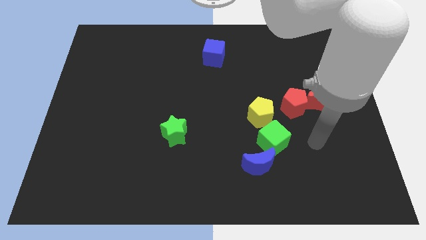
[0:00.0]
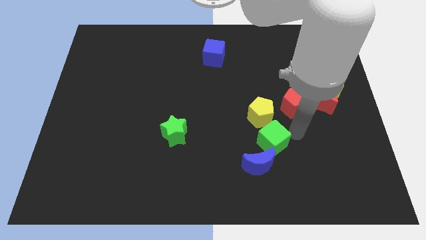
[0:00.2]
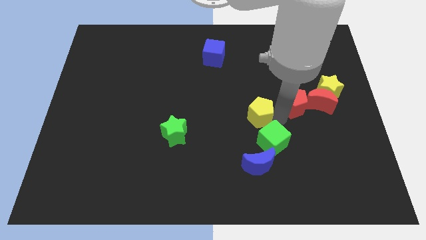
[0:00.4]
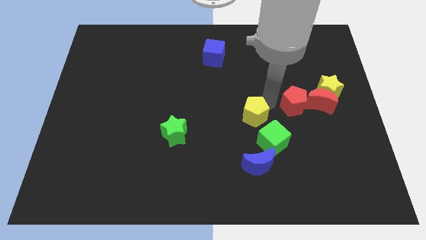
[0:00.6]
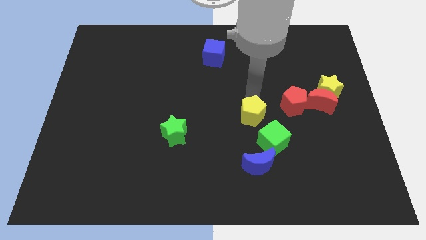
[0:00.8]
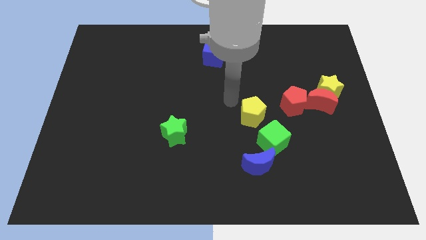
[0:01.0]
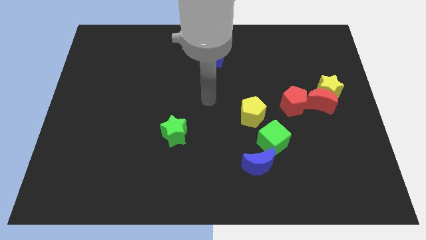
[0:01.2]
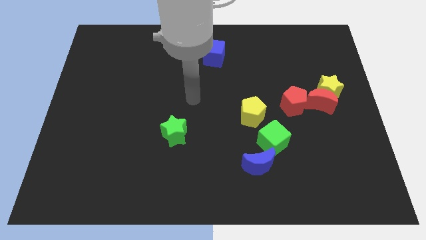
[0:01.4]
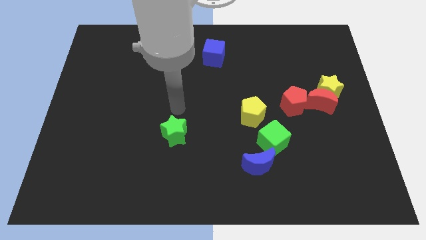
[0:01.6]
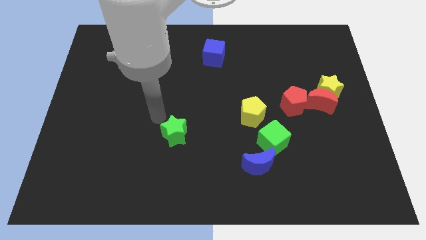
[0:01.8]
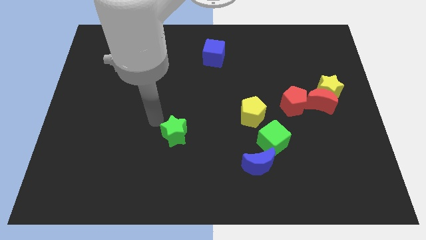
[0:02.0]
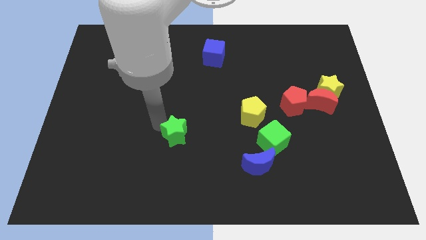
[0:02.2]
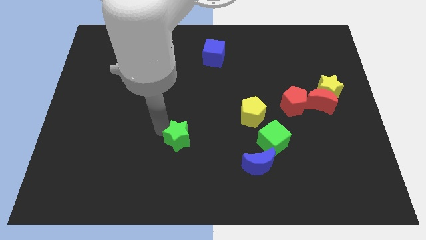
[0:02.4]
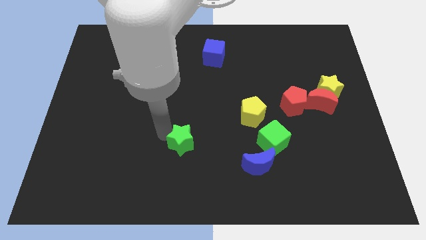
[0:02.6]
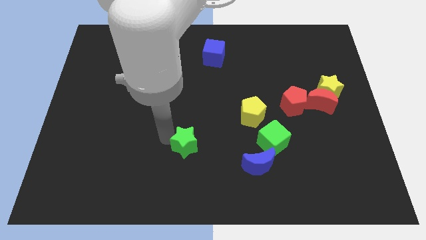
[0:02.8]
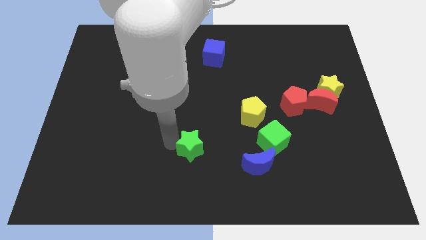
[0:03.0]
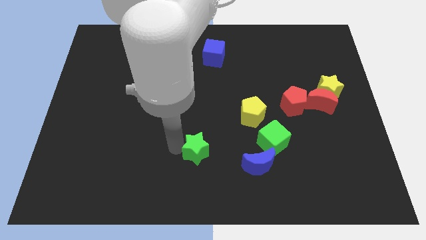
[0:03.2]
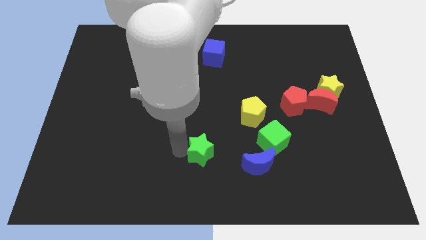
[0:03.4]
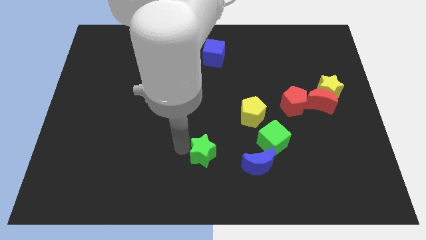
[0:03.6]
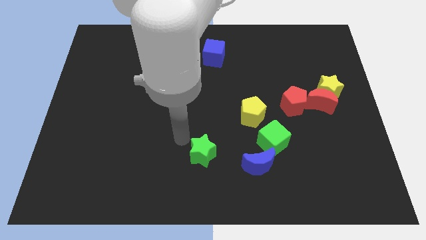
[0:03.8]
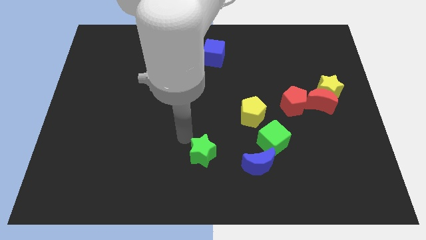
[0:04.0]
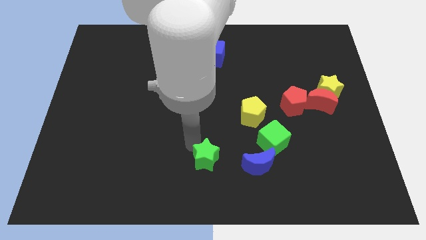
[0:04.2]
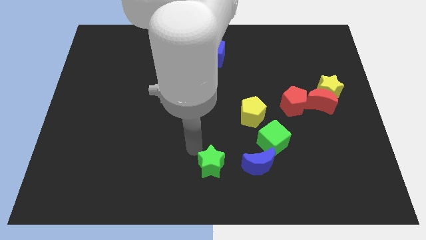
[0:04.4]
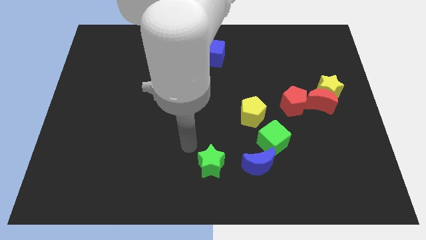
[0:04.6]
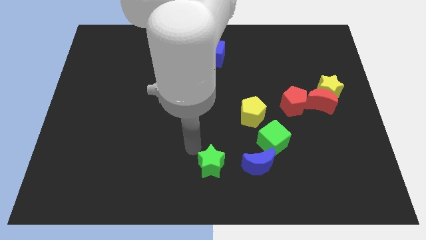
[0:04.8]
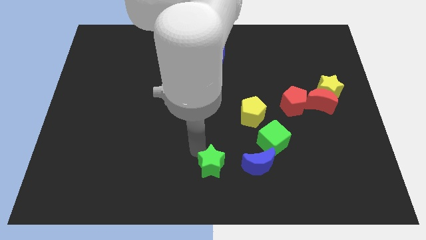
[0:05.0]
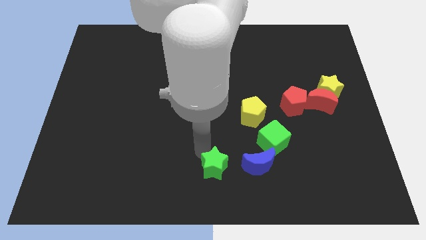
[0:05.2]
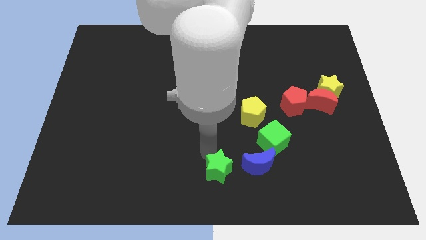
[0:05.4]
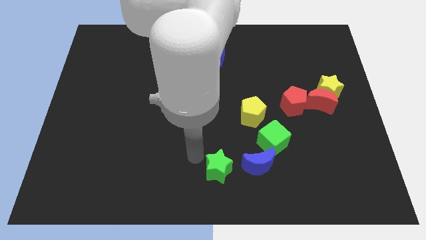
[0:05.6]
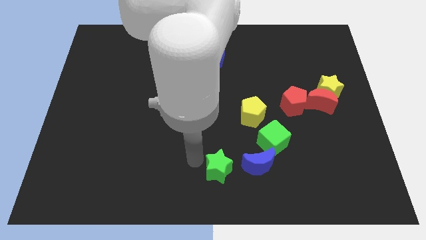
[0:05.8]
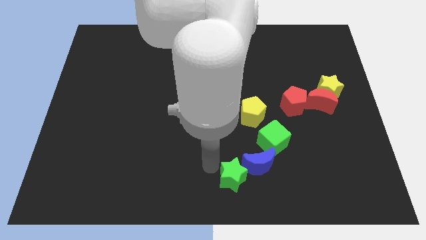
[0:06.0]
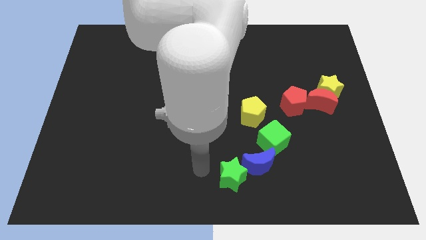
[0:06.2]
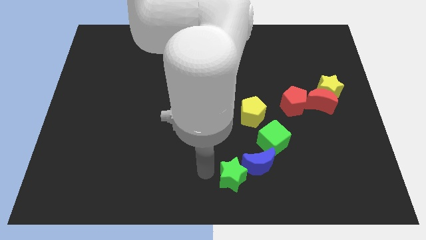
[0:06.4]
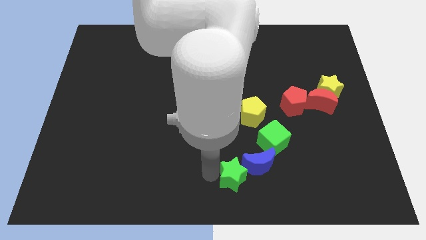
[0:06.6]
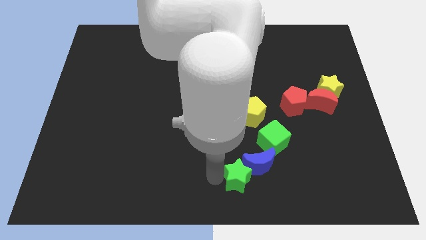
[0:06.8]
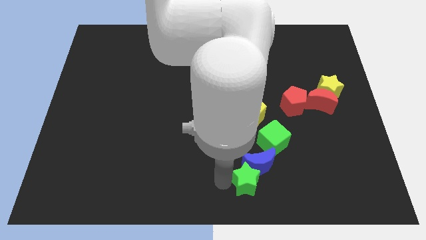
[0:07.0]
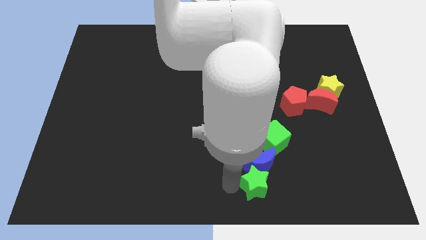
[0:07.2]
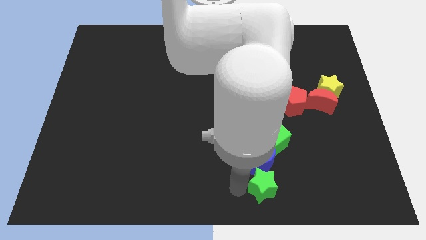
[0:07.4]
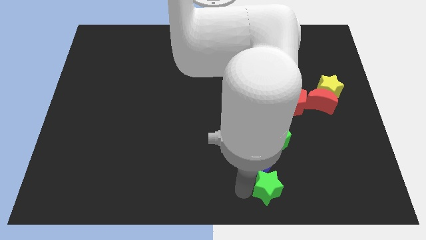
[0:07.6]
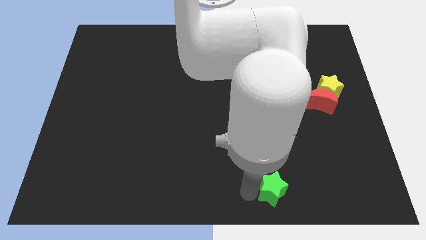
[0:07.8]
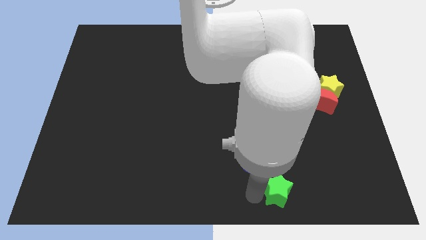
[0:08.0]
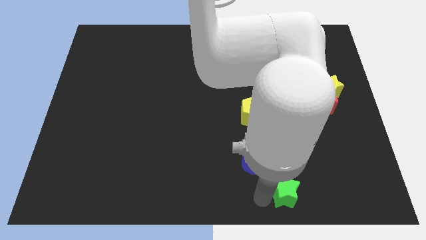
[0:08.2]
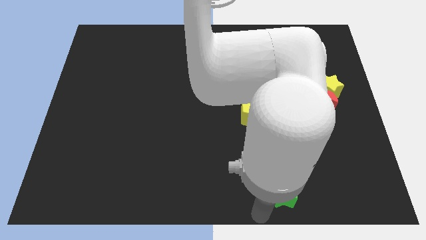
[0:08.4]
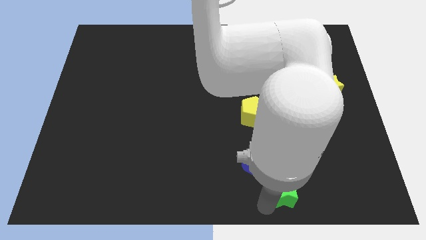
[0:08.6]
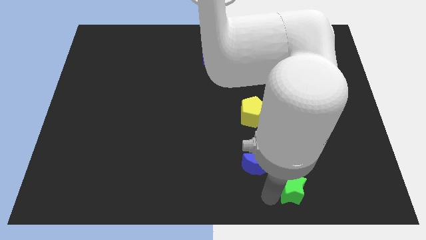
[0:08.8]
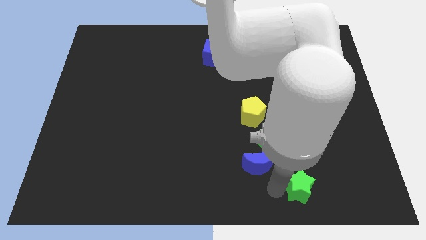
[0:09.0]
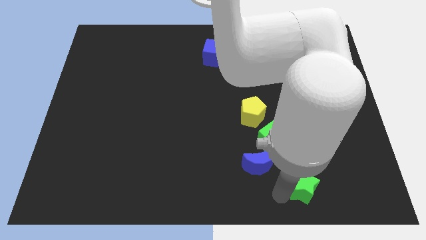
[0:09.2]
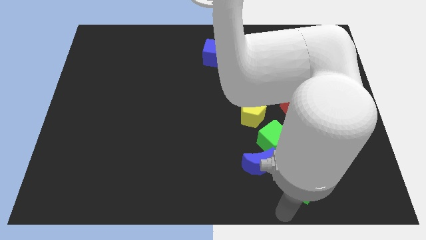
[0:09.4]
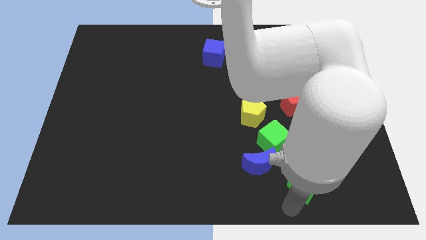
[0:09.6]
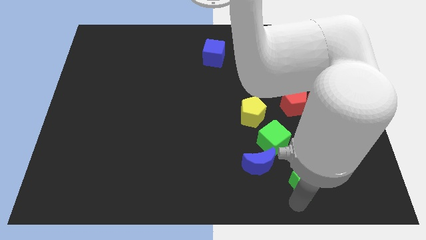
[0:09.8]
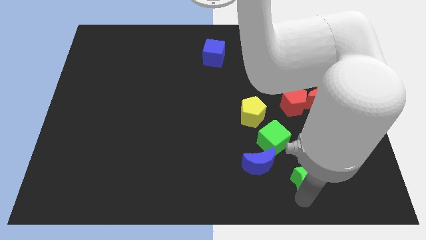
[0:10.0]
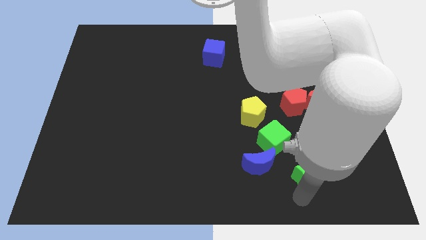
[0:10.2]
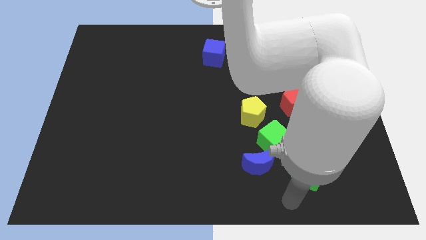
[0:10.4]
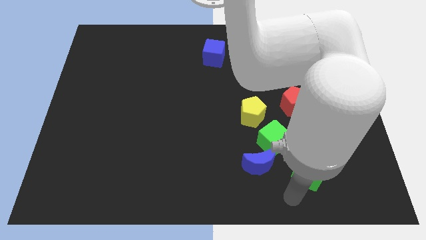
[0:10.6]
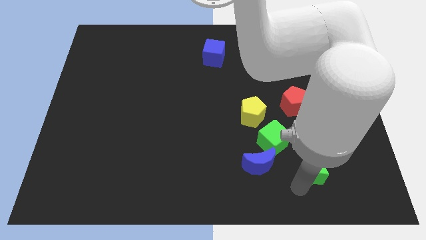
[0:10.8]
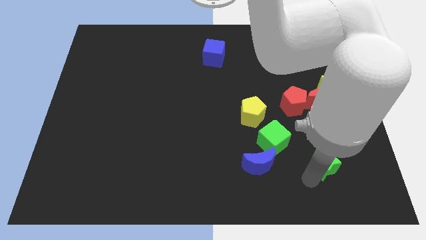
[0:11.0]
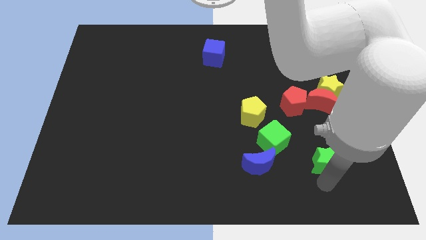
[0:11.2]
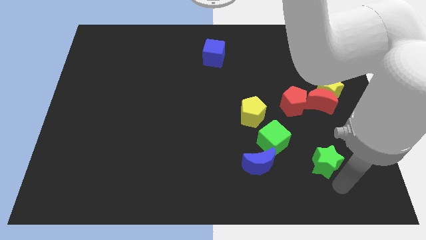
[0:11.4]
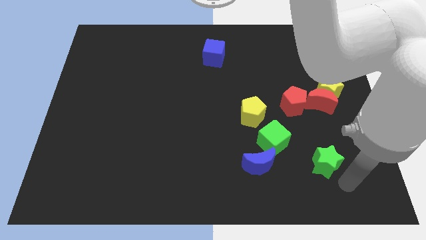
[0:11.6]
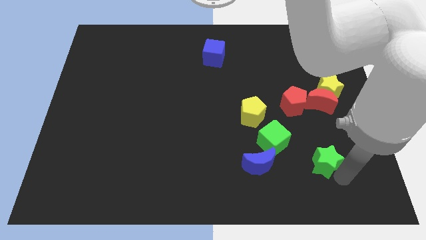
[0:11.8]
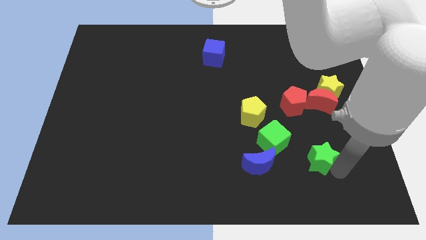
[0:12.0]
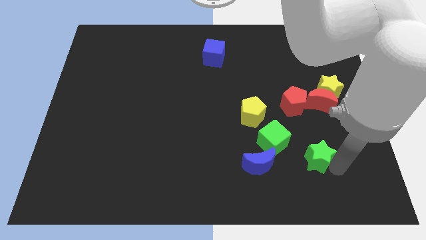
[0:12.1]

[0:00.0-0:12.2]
move the green star to the bottom side of the red pentagon

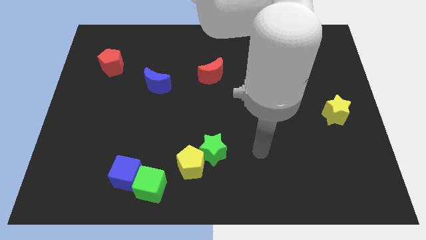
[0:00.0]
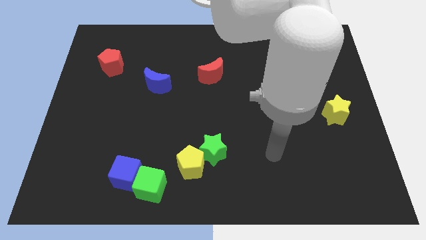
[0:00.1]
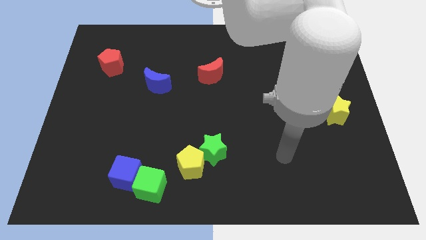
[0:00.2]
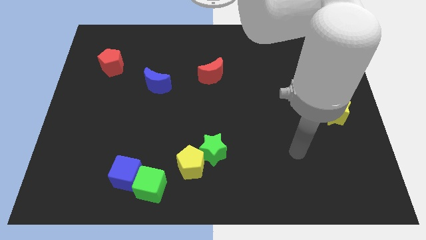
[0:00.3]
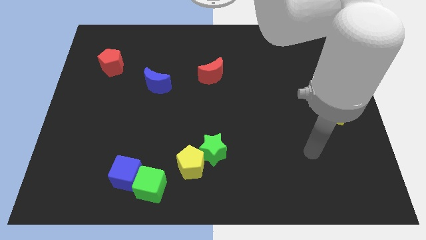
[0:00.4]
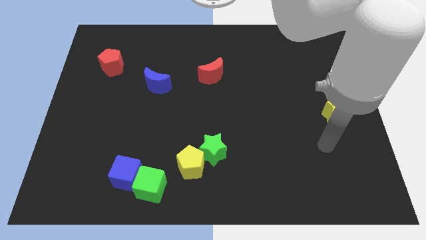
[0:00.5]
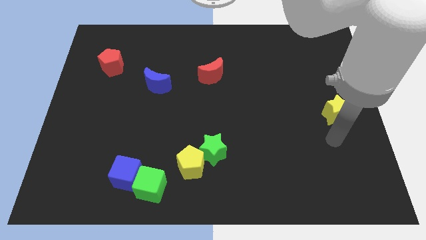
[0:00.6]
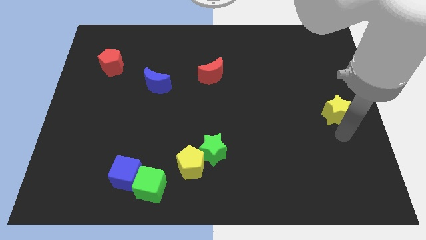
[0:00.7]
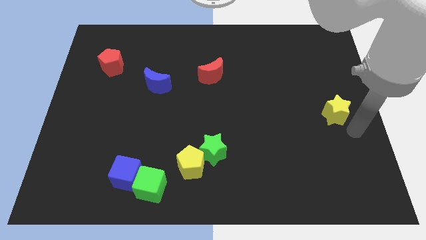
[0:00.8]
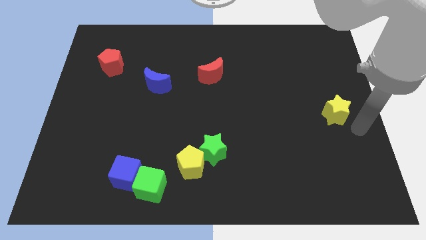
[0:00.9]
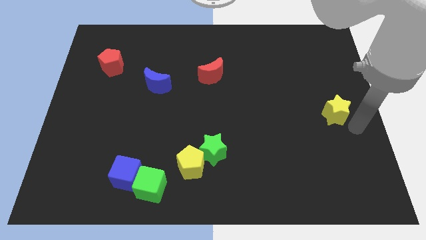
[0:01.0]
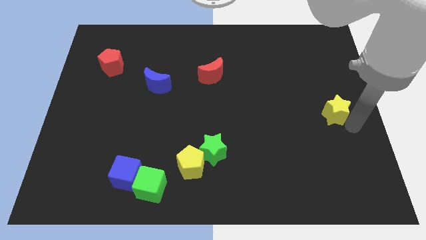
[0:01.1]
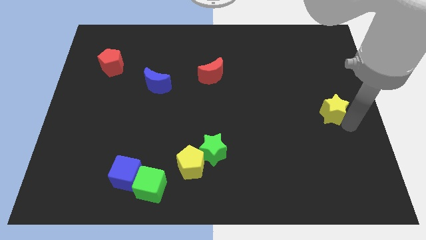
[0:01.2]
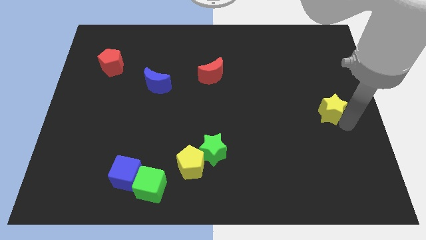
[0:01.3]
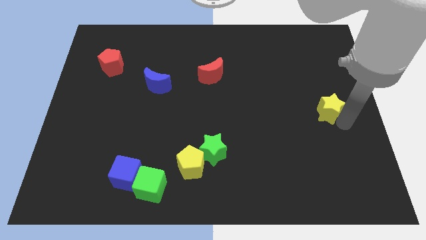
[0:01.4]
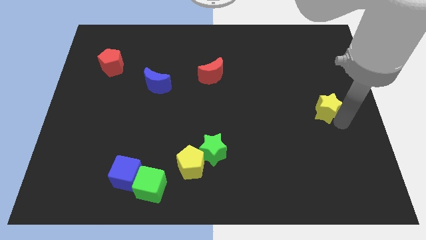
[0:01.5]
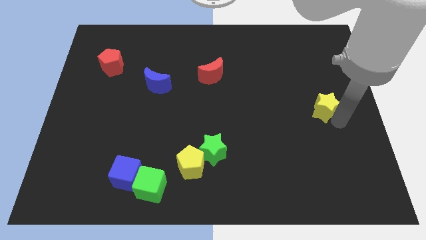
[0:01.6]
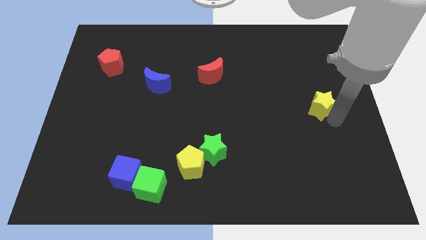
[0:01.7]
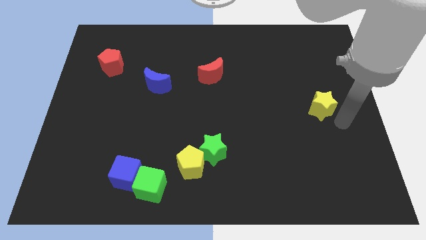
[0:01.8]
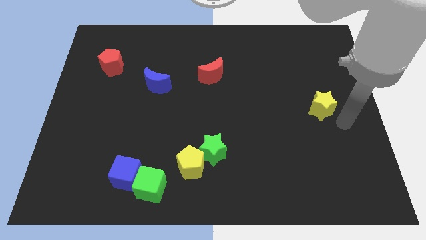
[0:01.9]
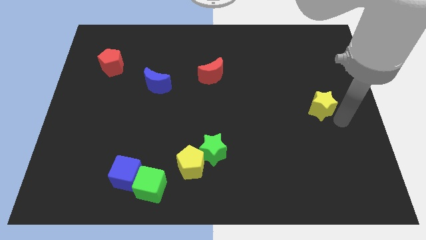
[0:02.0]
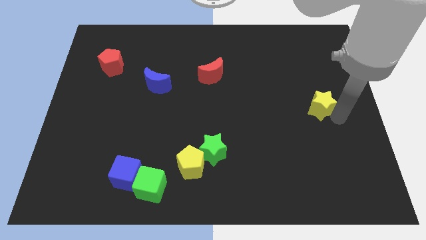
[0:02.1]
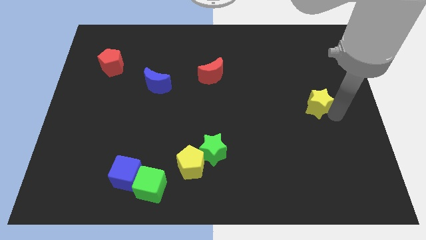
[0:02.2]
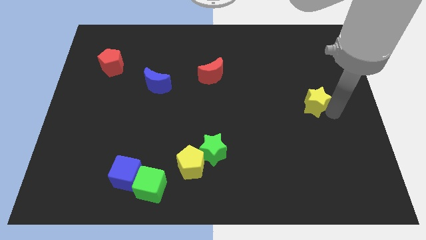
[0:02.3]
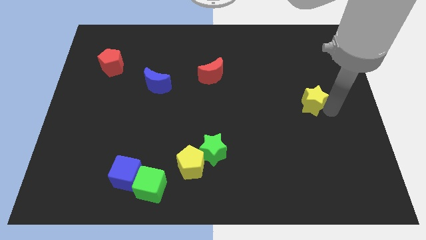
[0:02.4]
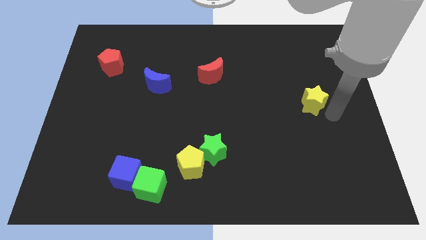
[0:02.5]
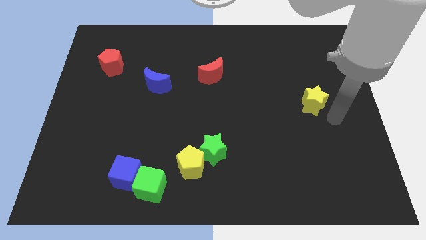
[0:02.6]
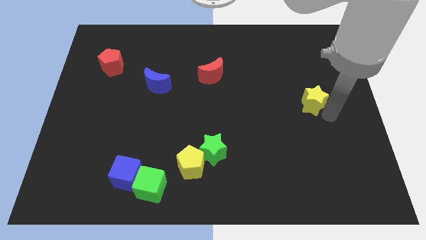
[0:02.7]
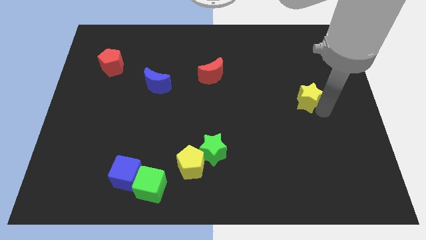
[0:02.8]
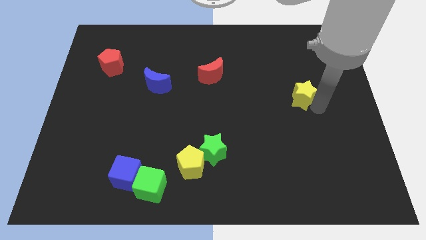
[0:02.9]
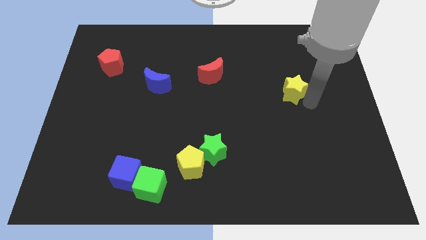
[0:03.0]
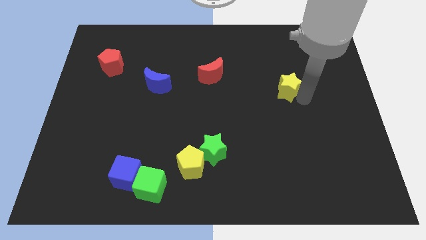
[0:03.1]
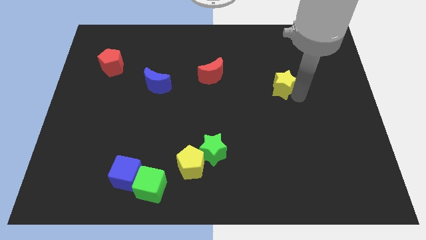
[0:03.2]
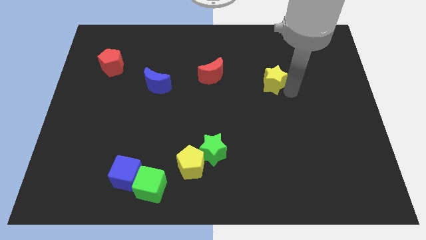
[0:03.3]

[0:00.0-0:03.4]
move the yellow star right of the red moon
